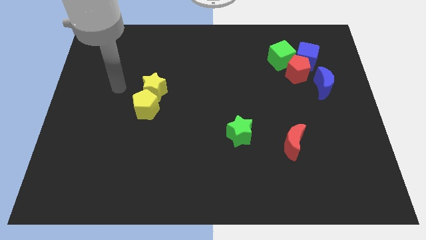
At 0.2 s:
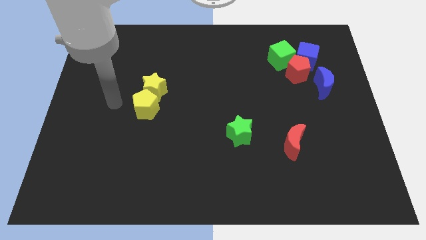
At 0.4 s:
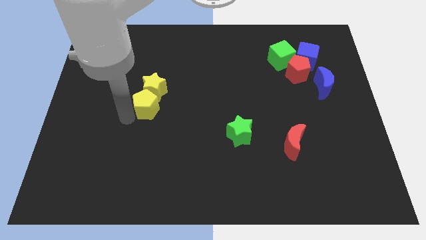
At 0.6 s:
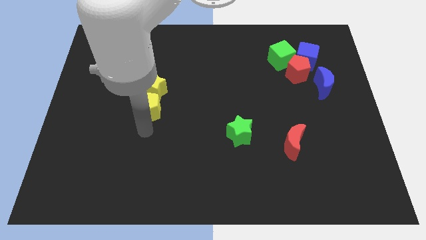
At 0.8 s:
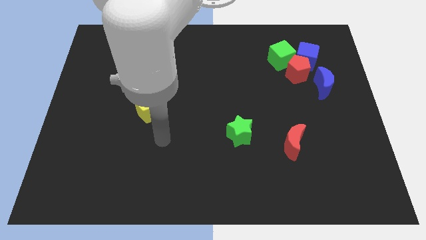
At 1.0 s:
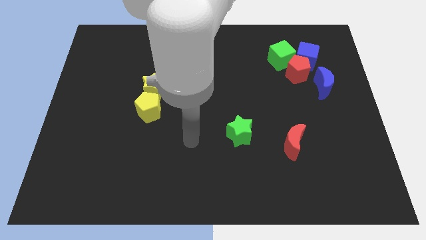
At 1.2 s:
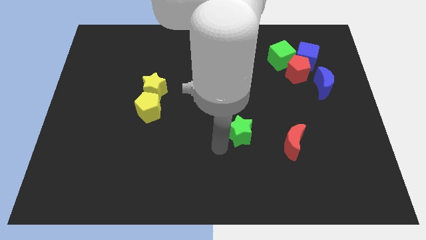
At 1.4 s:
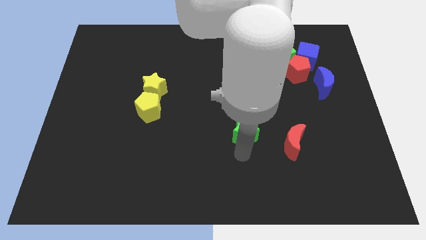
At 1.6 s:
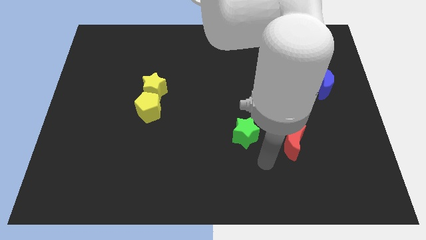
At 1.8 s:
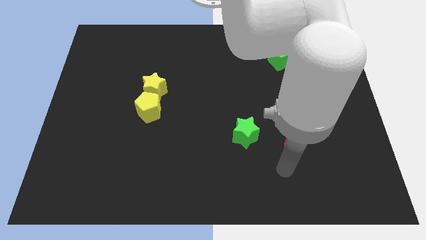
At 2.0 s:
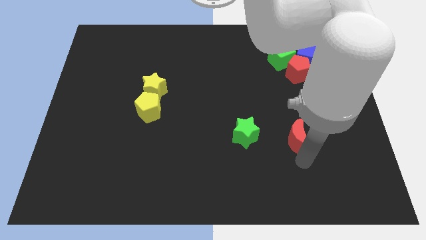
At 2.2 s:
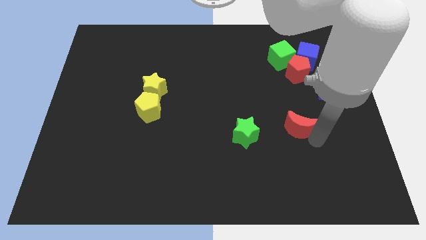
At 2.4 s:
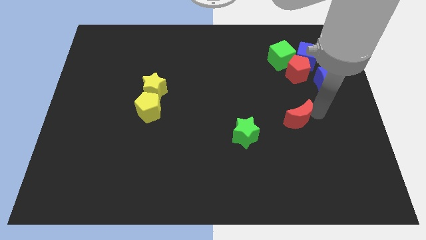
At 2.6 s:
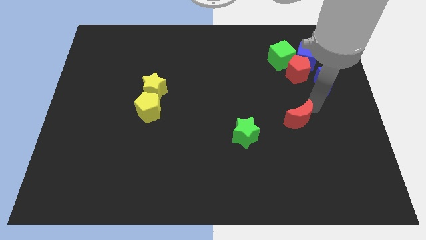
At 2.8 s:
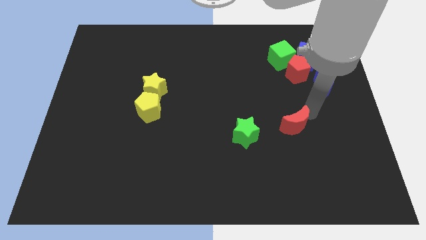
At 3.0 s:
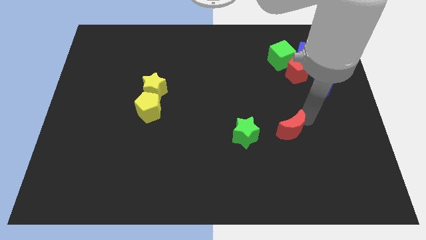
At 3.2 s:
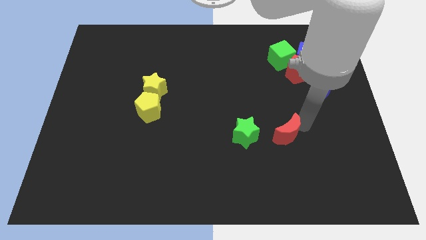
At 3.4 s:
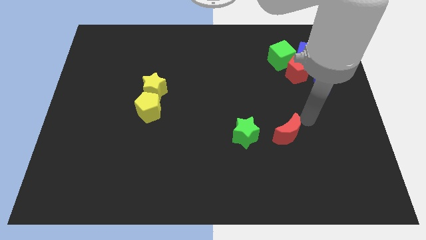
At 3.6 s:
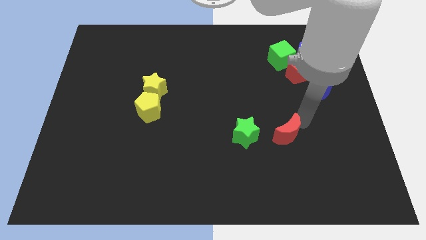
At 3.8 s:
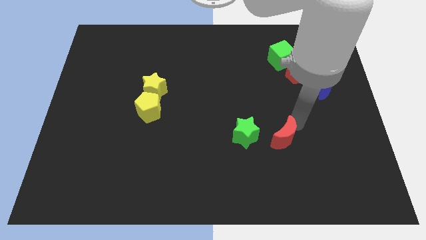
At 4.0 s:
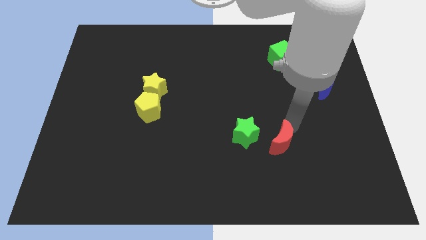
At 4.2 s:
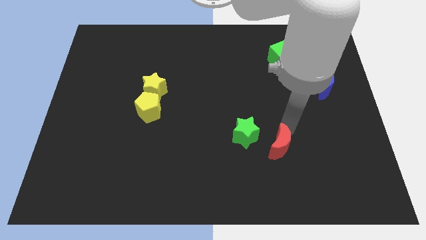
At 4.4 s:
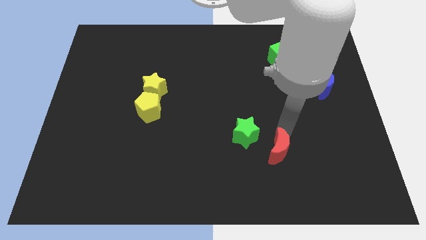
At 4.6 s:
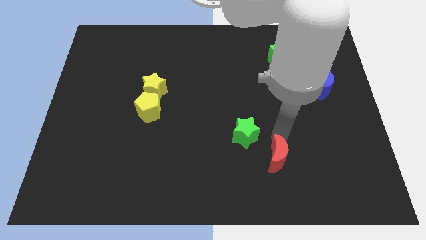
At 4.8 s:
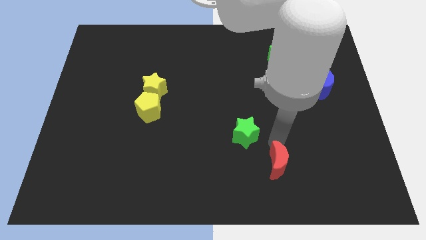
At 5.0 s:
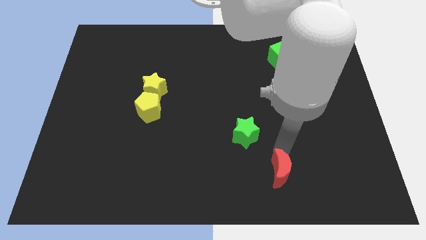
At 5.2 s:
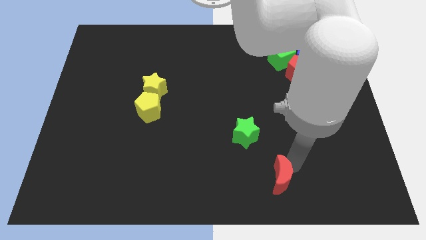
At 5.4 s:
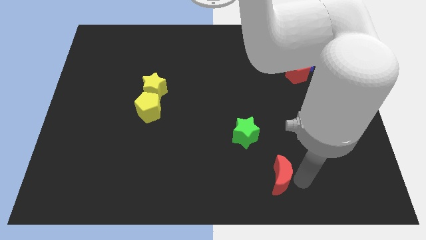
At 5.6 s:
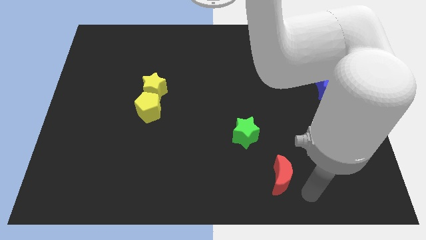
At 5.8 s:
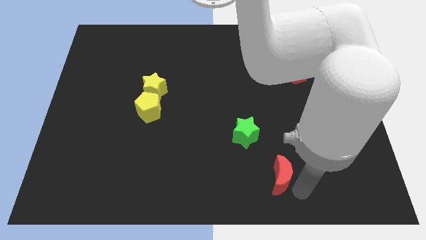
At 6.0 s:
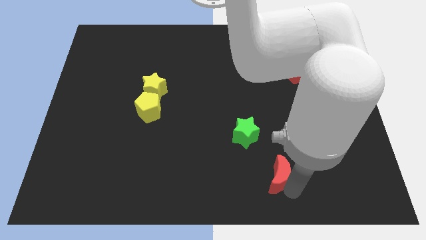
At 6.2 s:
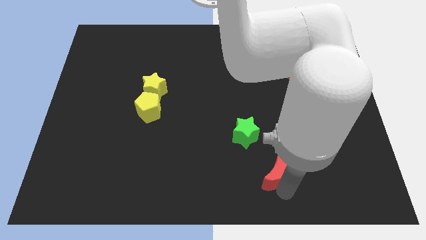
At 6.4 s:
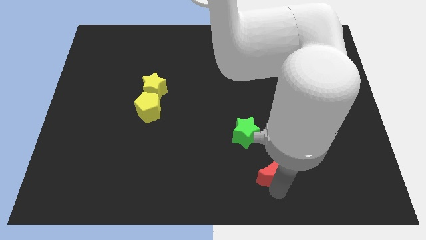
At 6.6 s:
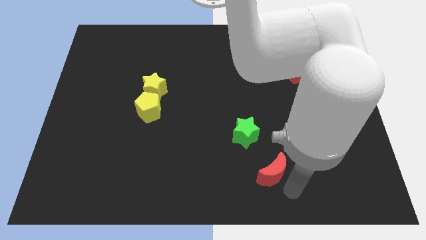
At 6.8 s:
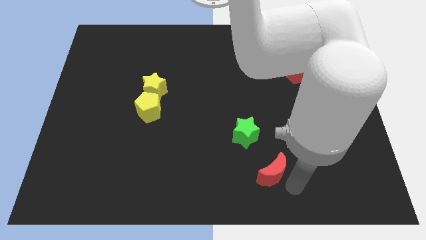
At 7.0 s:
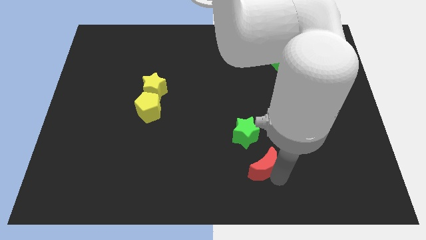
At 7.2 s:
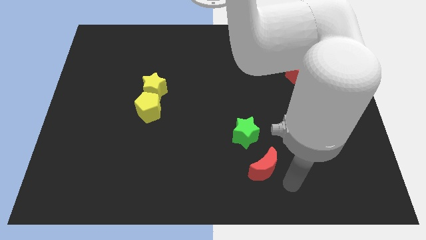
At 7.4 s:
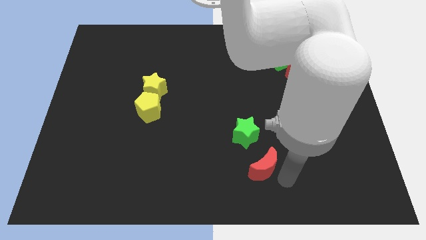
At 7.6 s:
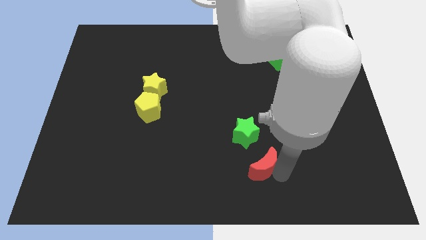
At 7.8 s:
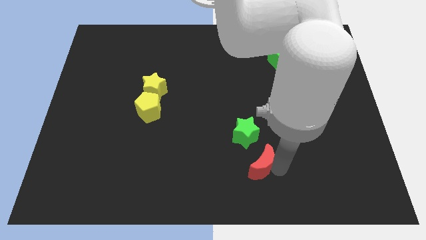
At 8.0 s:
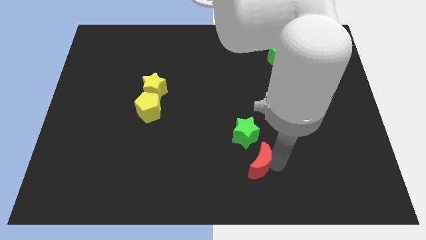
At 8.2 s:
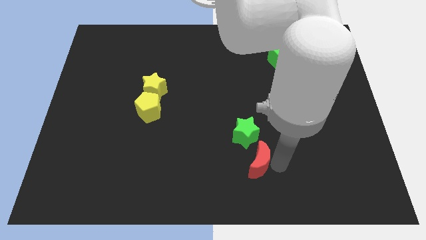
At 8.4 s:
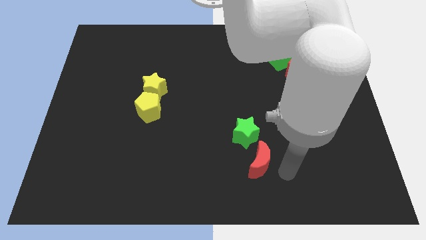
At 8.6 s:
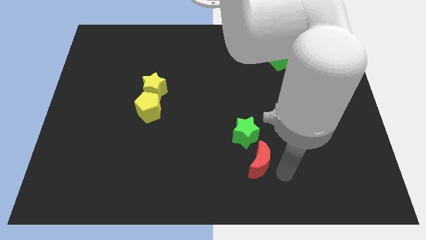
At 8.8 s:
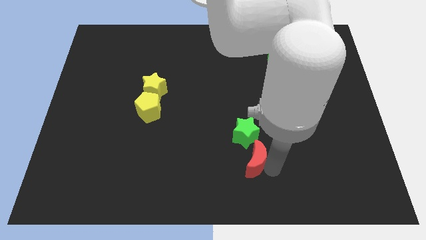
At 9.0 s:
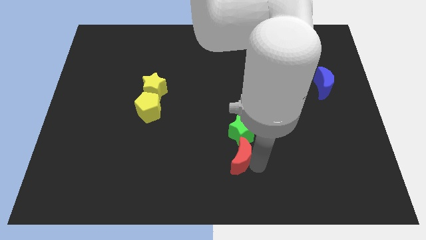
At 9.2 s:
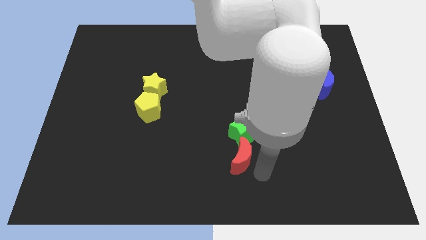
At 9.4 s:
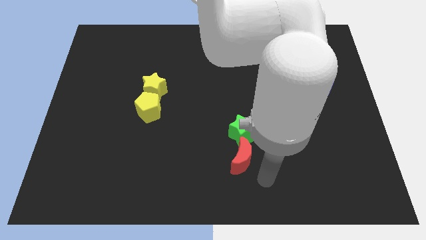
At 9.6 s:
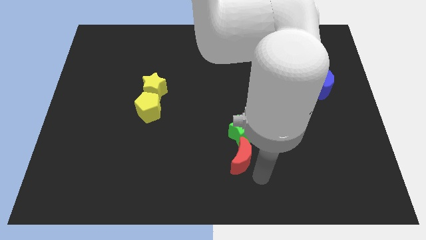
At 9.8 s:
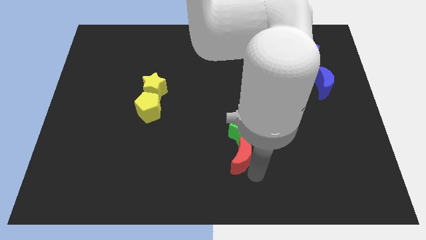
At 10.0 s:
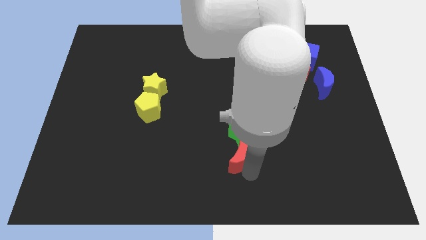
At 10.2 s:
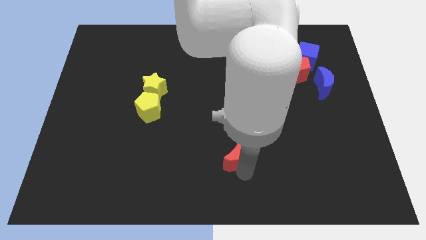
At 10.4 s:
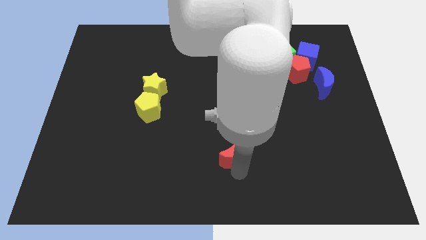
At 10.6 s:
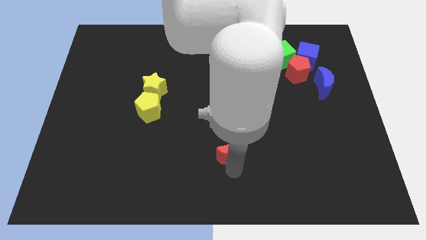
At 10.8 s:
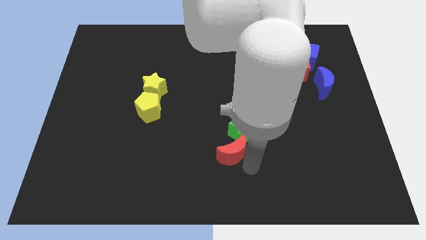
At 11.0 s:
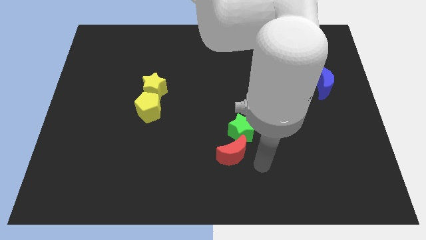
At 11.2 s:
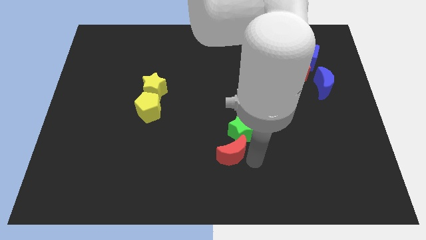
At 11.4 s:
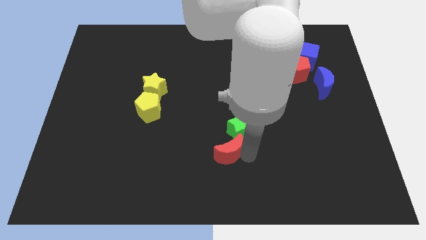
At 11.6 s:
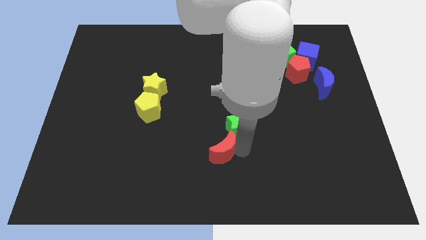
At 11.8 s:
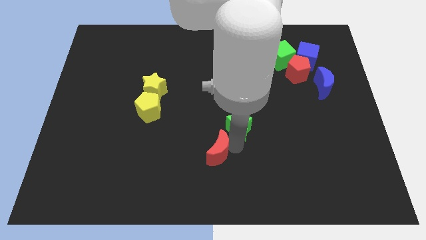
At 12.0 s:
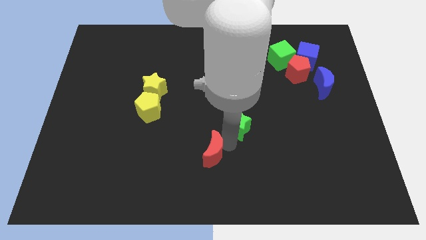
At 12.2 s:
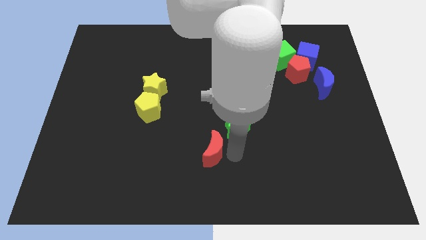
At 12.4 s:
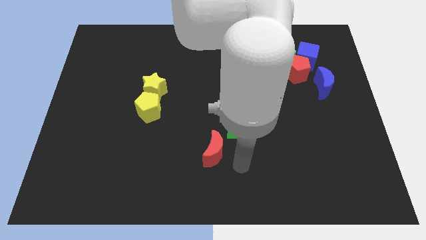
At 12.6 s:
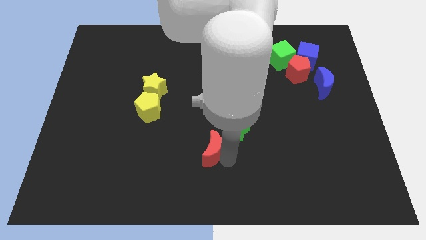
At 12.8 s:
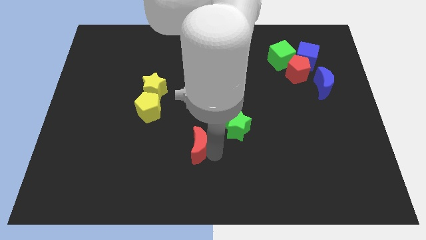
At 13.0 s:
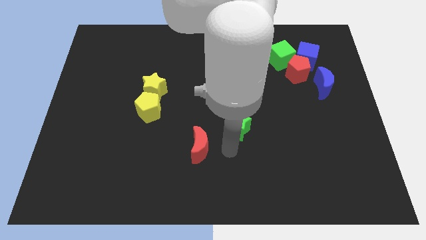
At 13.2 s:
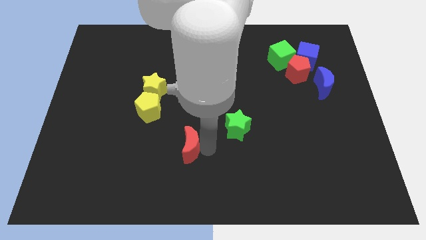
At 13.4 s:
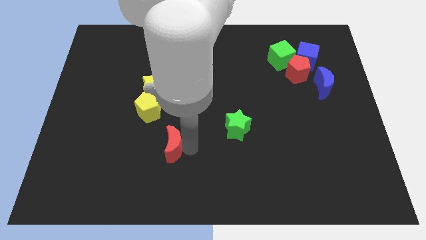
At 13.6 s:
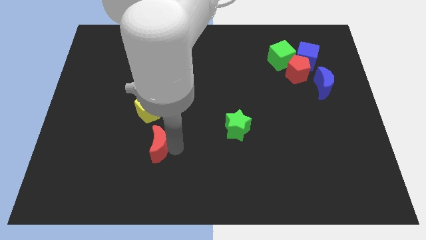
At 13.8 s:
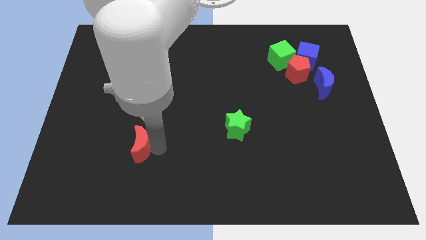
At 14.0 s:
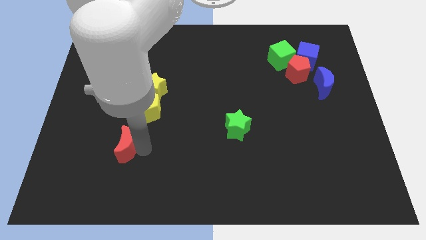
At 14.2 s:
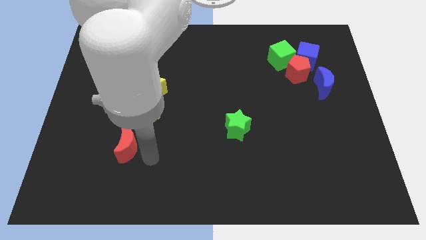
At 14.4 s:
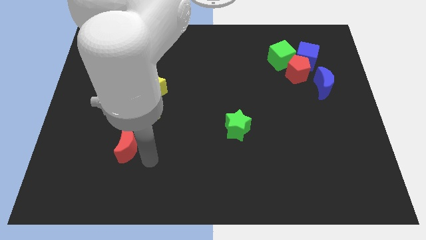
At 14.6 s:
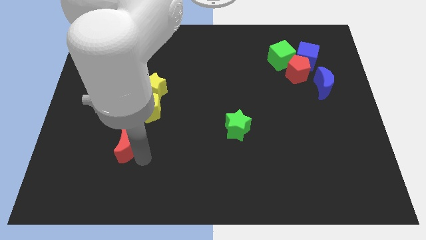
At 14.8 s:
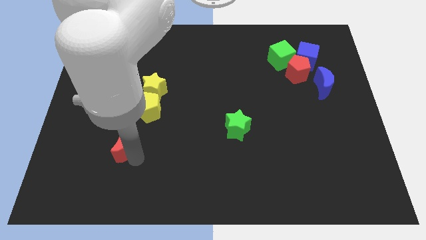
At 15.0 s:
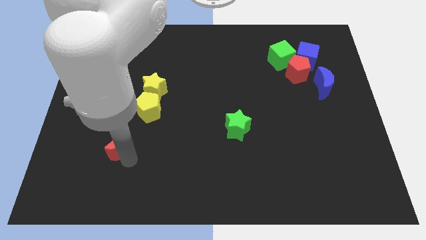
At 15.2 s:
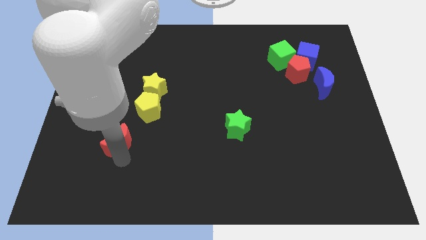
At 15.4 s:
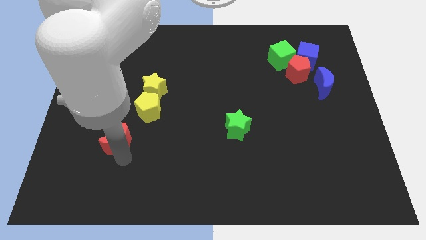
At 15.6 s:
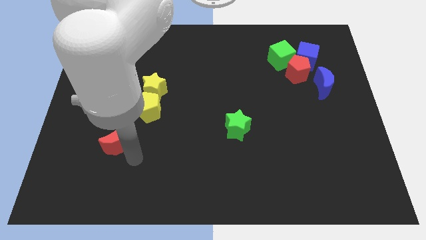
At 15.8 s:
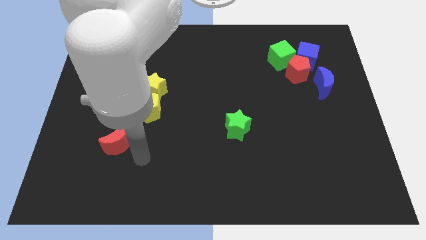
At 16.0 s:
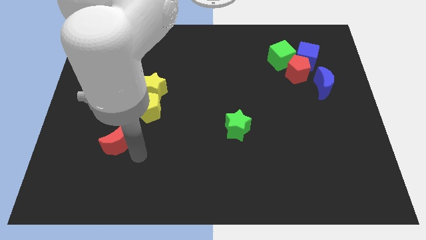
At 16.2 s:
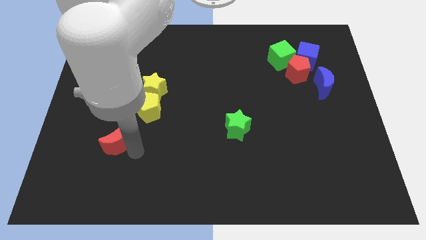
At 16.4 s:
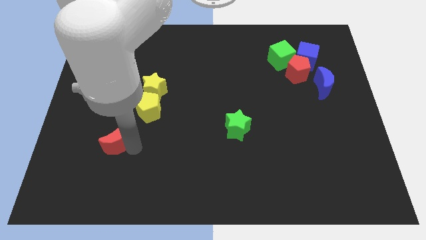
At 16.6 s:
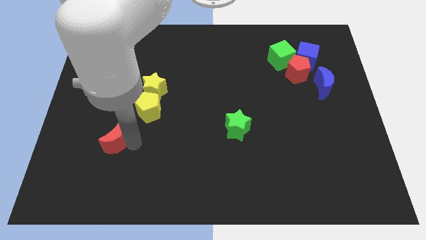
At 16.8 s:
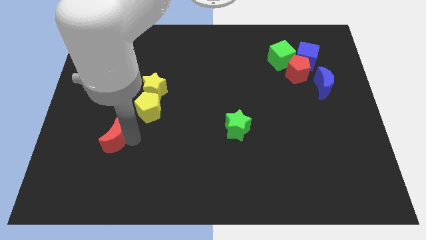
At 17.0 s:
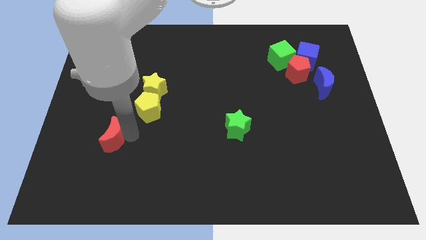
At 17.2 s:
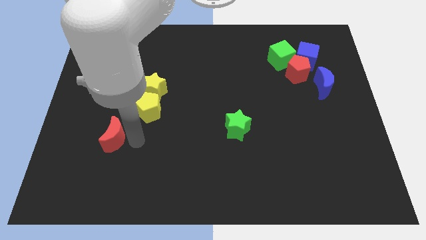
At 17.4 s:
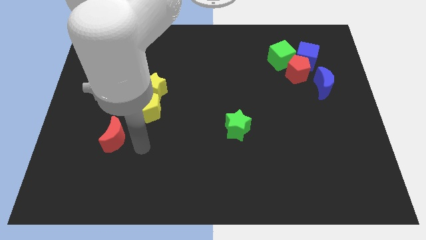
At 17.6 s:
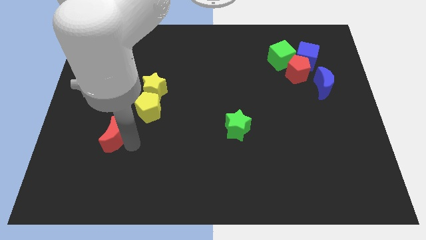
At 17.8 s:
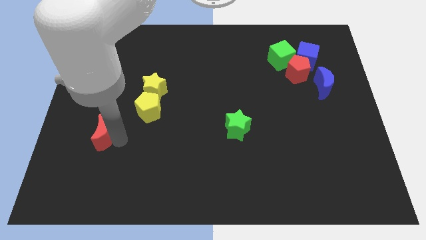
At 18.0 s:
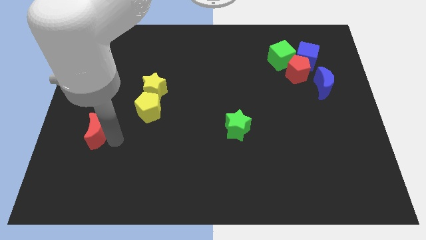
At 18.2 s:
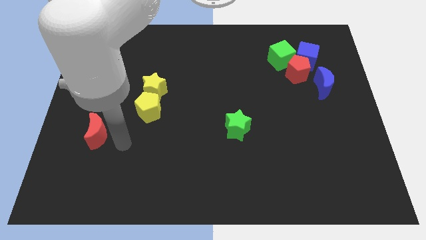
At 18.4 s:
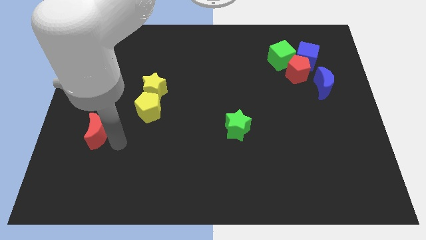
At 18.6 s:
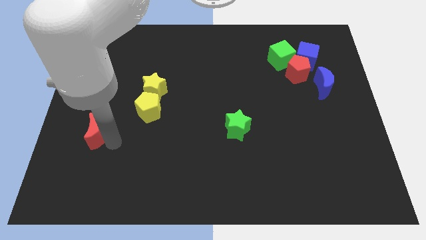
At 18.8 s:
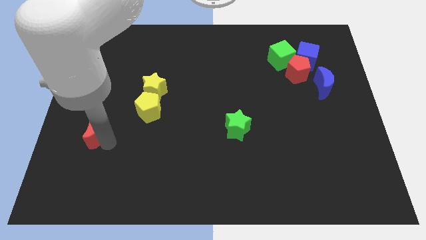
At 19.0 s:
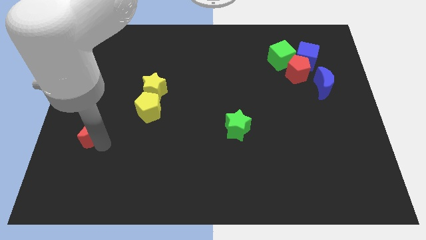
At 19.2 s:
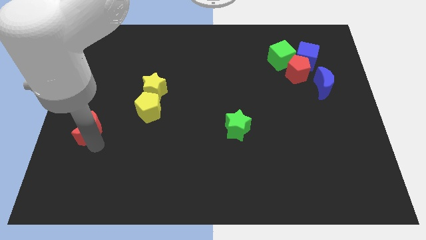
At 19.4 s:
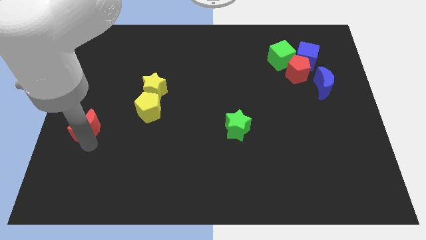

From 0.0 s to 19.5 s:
push the red moon to the center left
